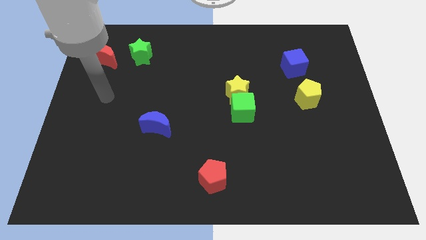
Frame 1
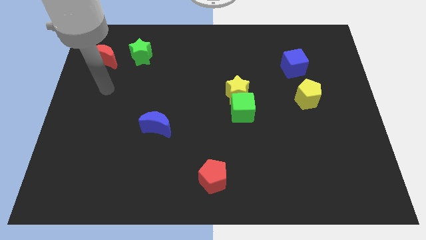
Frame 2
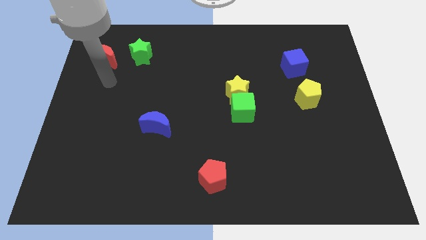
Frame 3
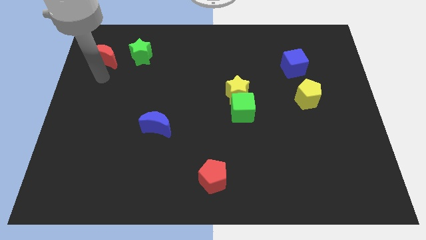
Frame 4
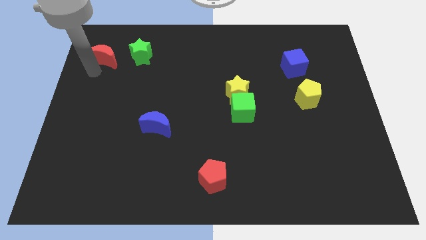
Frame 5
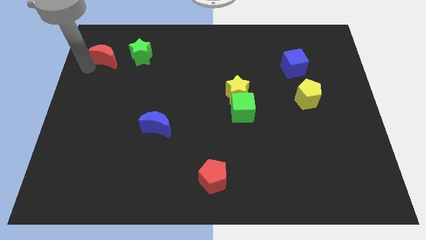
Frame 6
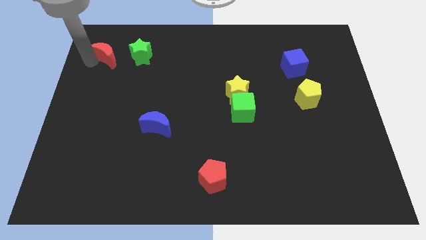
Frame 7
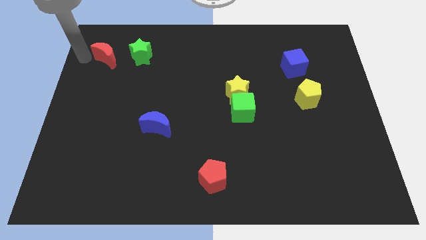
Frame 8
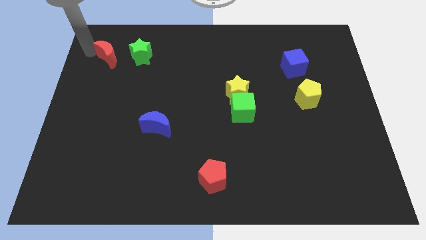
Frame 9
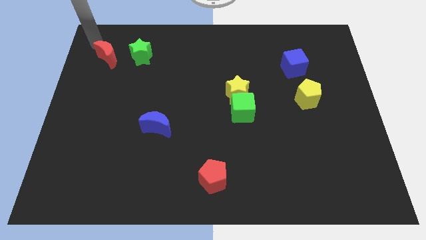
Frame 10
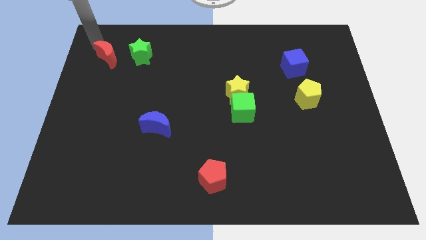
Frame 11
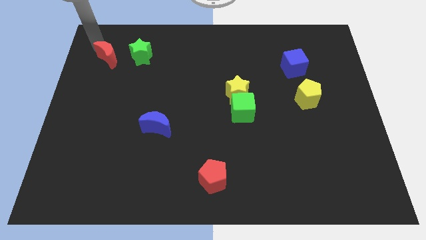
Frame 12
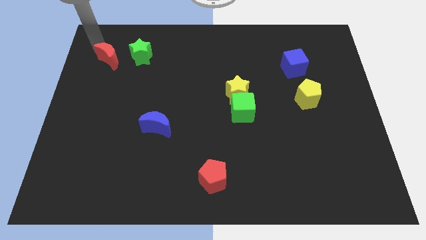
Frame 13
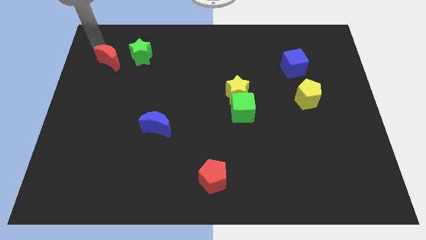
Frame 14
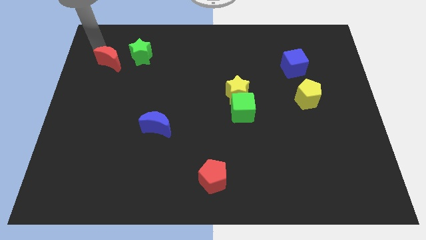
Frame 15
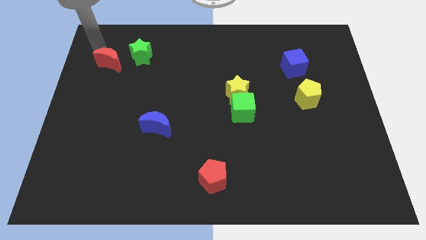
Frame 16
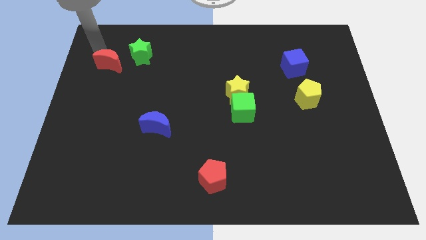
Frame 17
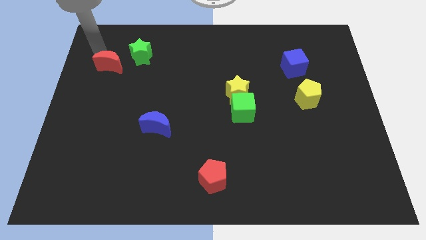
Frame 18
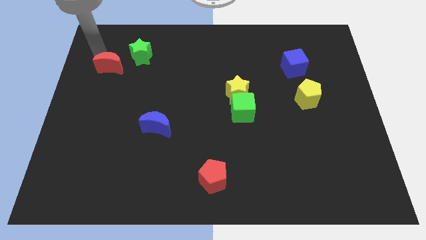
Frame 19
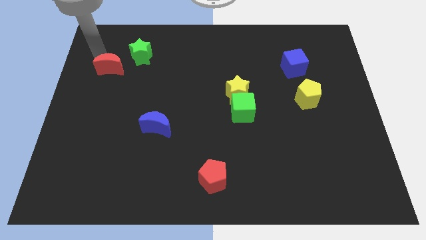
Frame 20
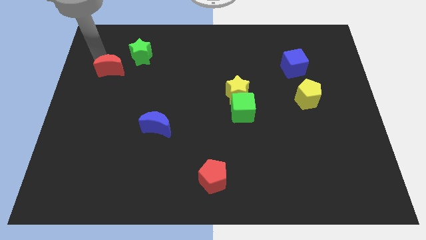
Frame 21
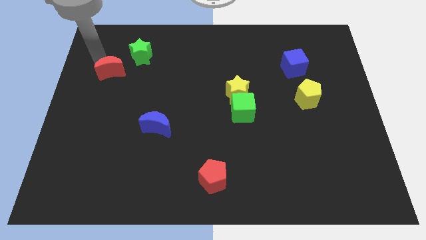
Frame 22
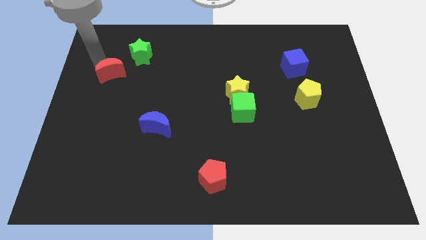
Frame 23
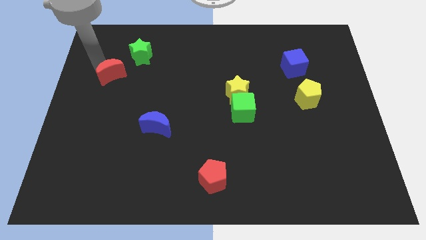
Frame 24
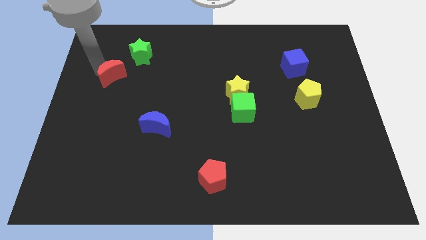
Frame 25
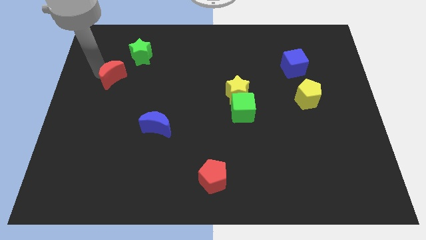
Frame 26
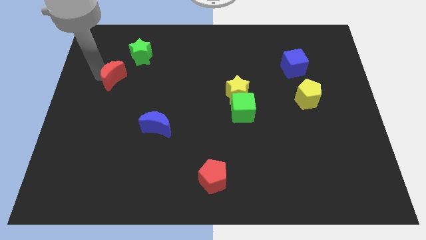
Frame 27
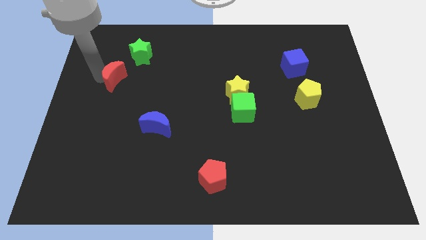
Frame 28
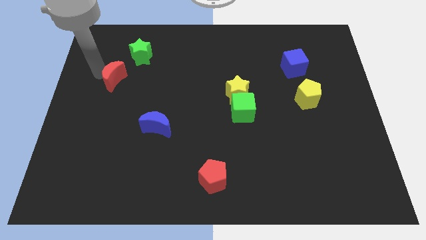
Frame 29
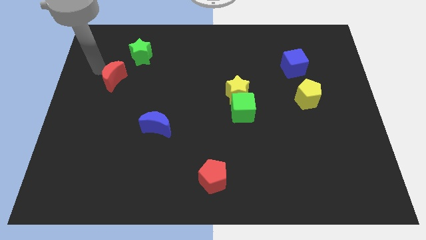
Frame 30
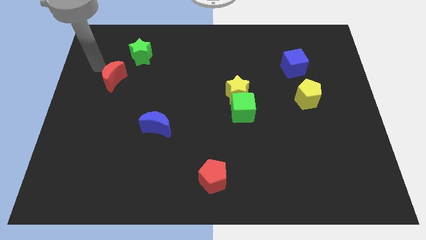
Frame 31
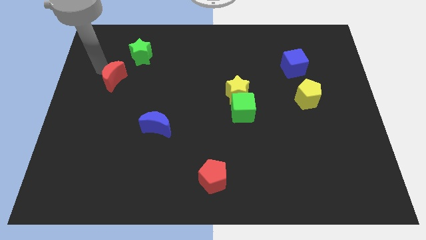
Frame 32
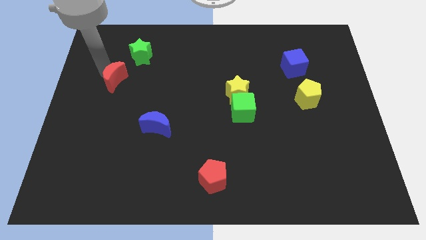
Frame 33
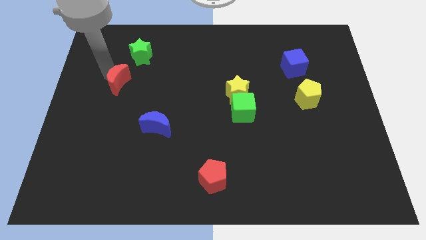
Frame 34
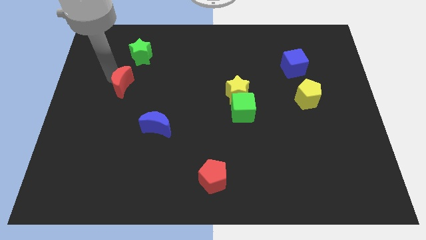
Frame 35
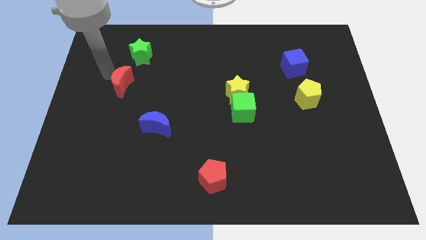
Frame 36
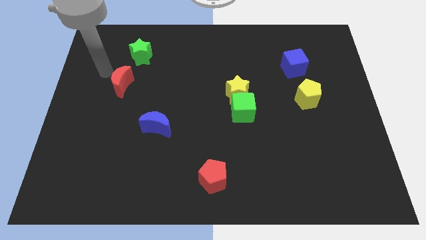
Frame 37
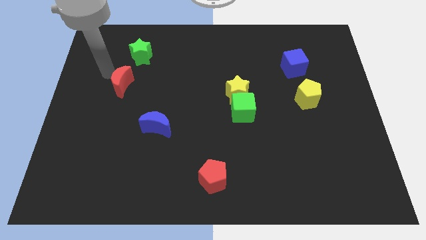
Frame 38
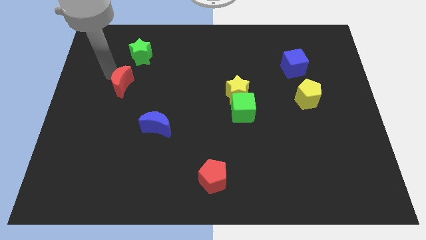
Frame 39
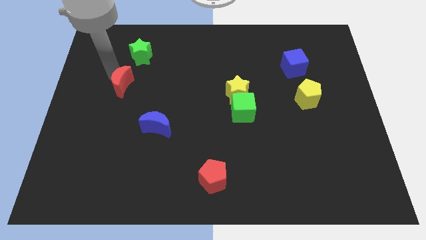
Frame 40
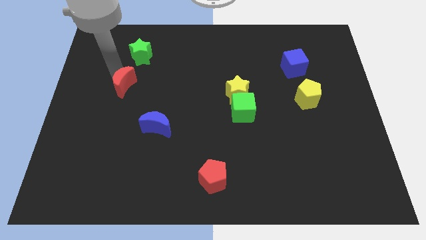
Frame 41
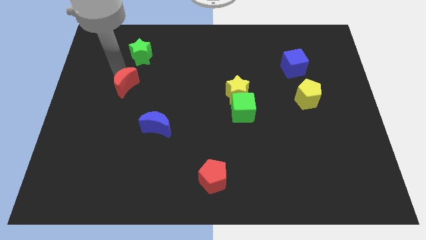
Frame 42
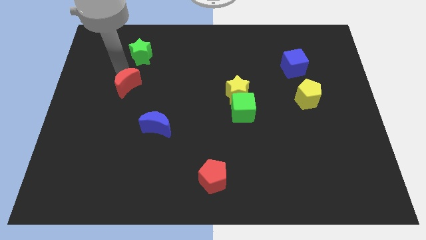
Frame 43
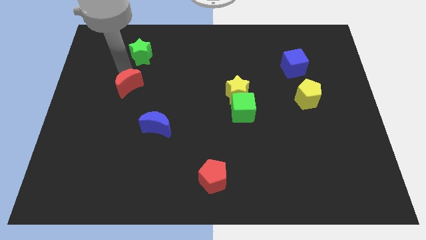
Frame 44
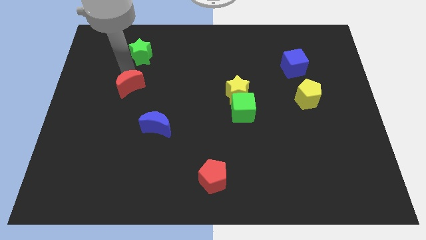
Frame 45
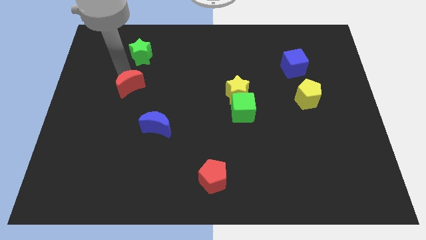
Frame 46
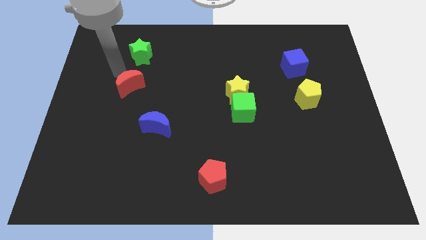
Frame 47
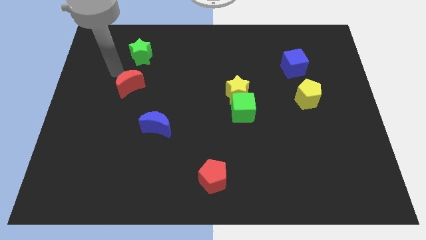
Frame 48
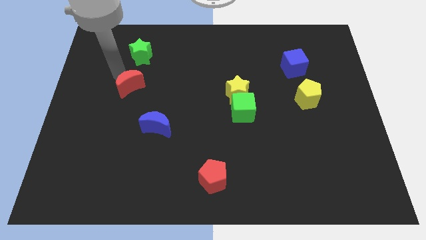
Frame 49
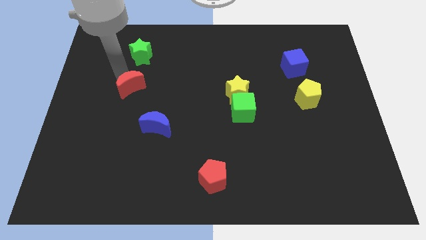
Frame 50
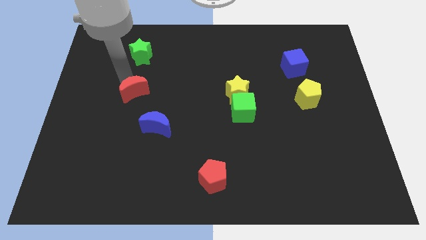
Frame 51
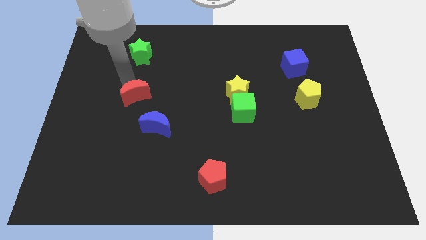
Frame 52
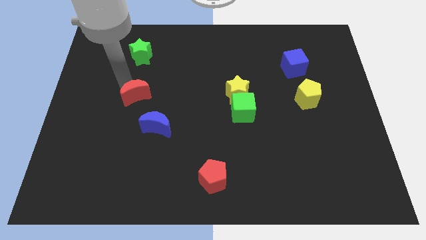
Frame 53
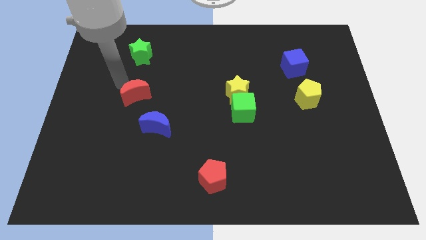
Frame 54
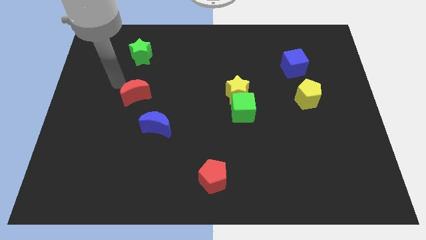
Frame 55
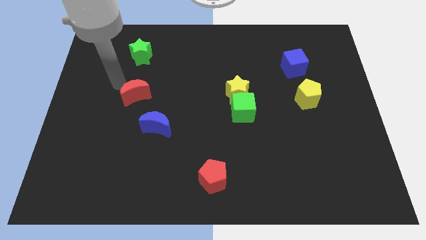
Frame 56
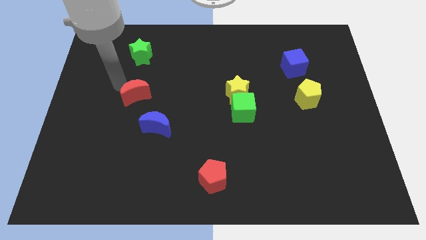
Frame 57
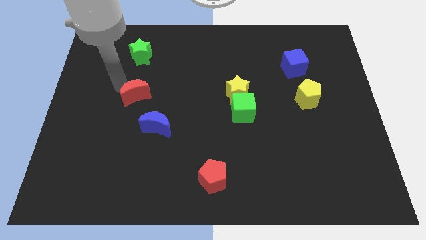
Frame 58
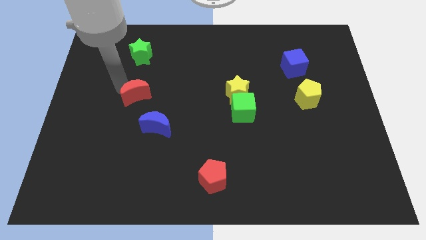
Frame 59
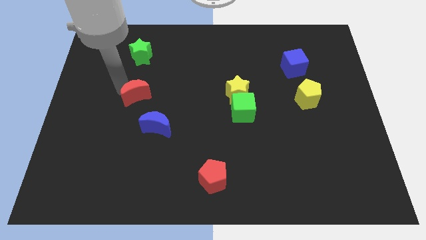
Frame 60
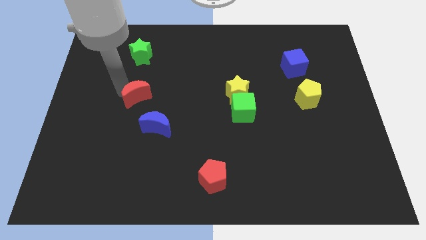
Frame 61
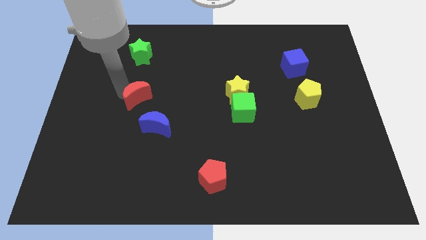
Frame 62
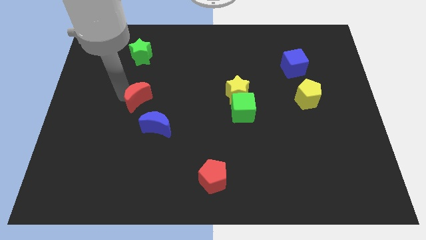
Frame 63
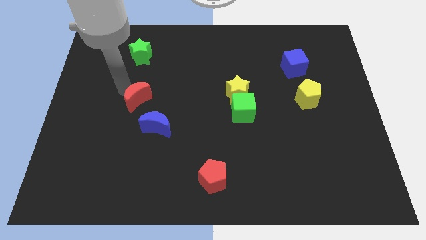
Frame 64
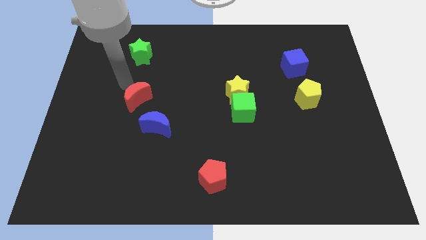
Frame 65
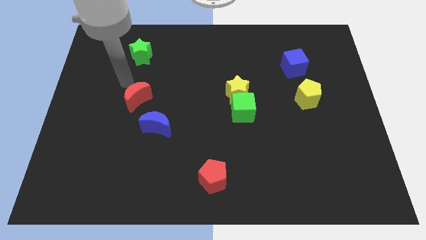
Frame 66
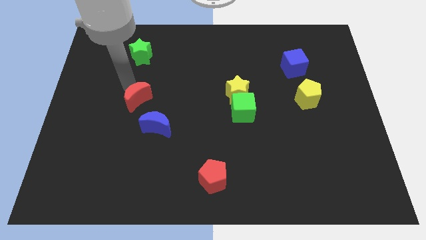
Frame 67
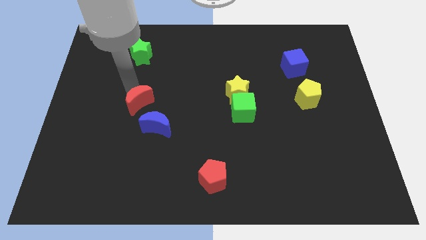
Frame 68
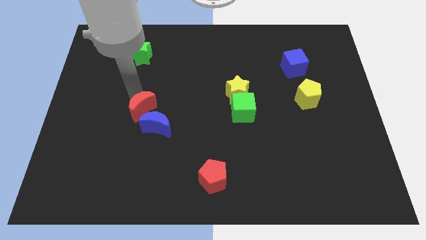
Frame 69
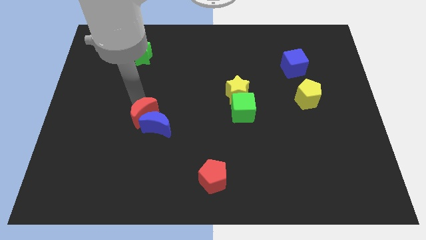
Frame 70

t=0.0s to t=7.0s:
put the red moon next to the blue moon

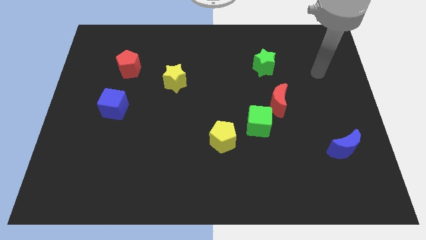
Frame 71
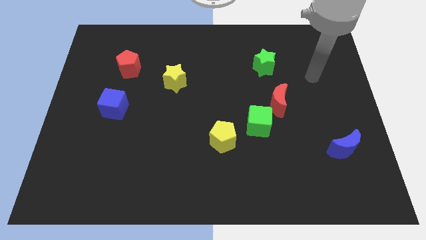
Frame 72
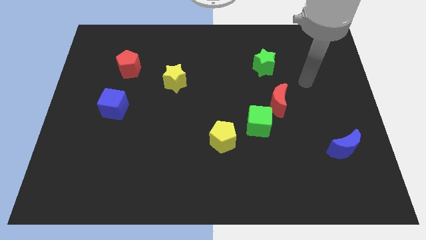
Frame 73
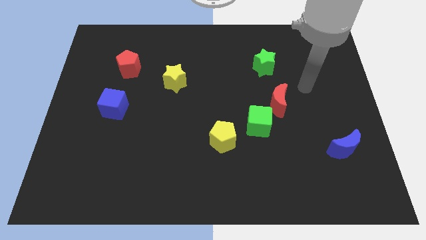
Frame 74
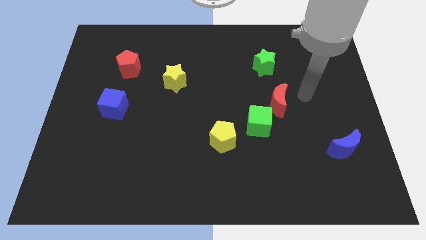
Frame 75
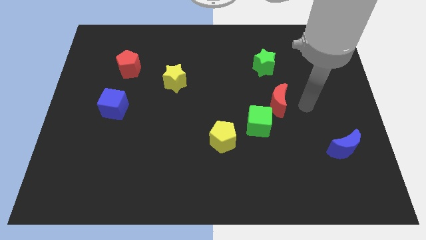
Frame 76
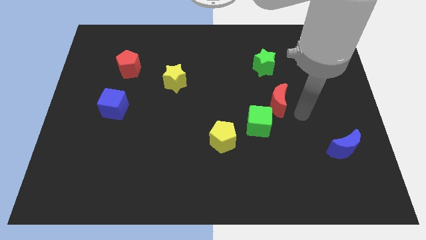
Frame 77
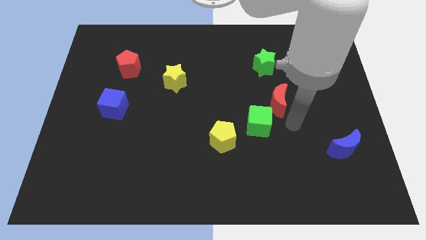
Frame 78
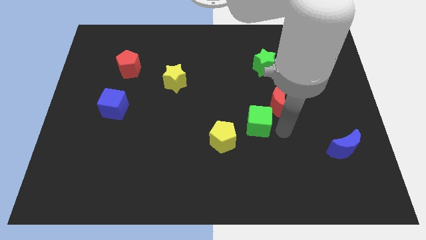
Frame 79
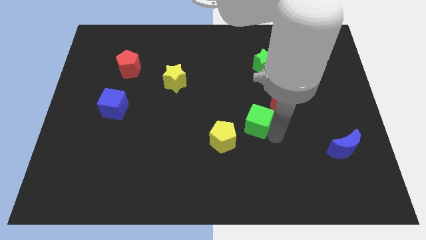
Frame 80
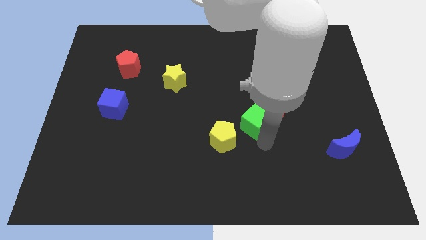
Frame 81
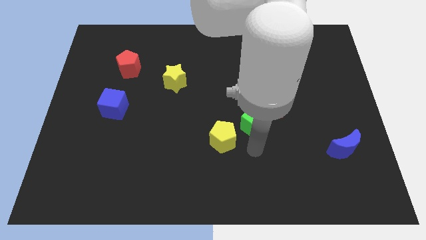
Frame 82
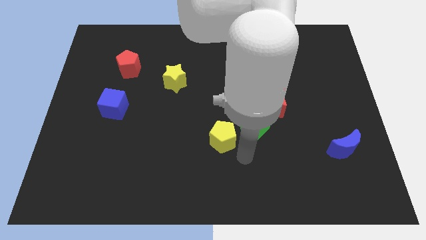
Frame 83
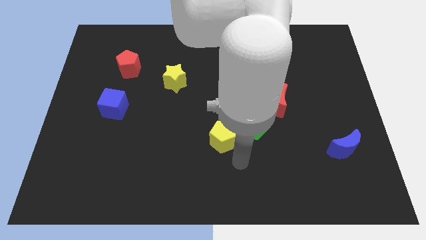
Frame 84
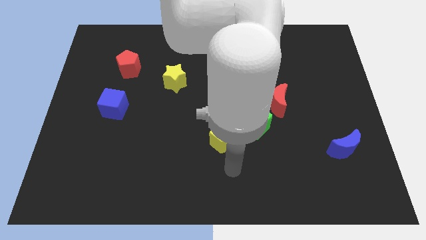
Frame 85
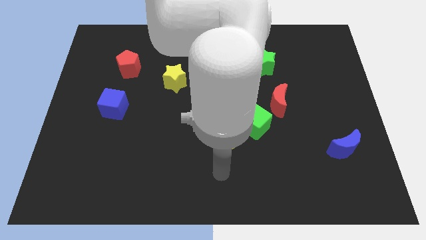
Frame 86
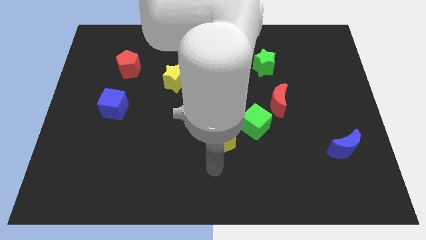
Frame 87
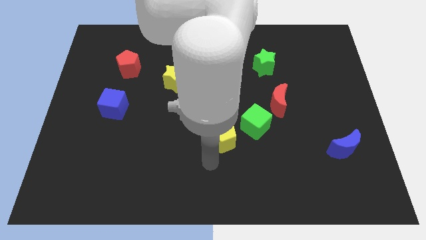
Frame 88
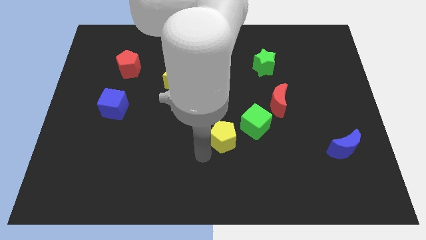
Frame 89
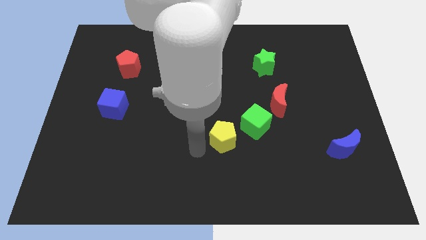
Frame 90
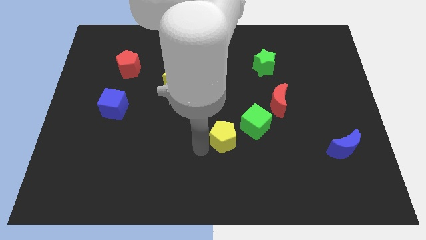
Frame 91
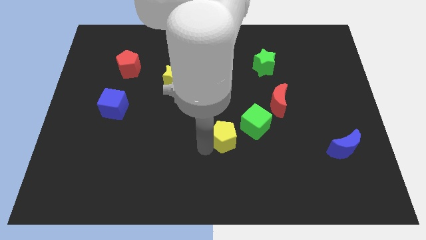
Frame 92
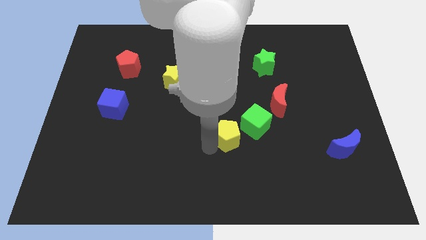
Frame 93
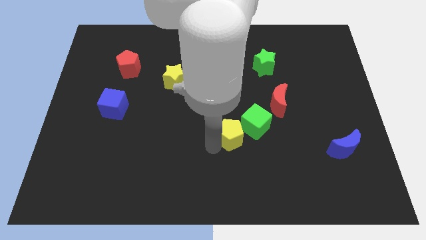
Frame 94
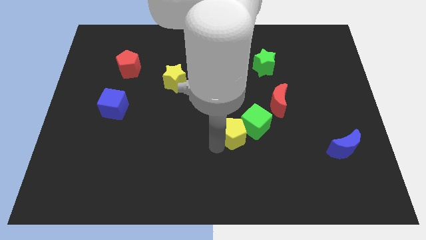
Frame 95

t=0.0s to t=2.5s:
move the yellow pentagon to the green cube
